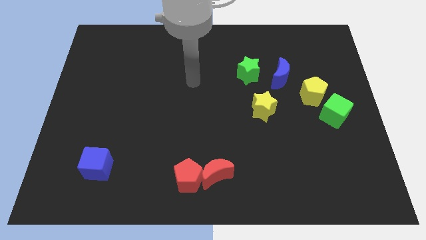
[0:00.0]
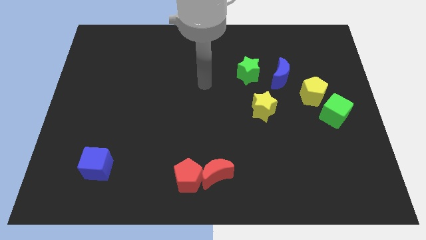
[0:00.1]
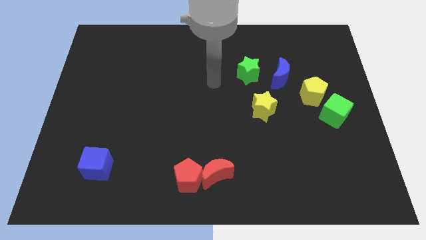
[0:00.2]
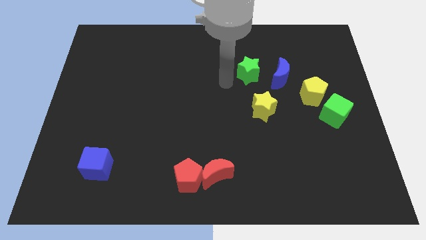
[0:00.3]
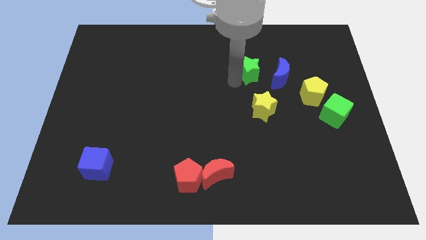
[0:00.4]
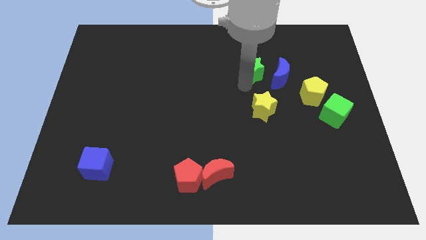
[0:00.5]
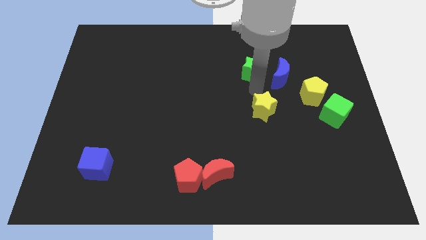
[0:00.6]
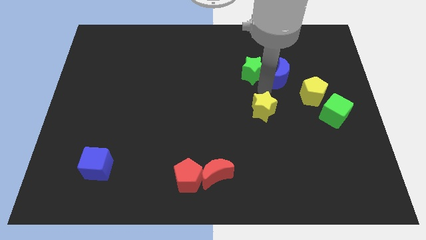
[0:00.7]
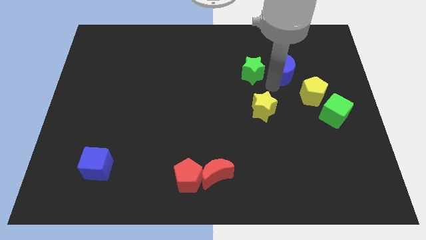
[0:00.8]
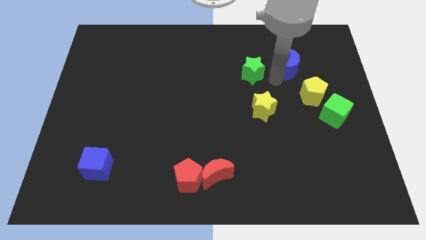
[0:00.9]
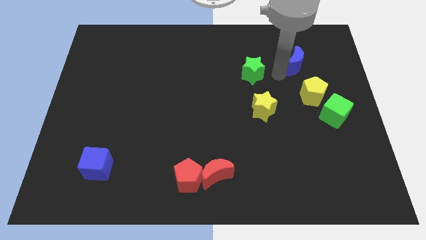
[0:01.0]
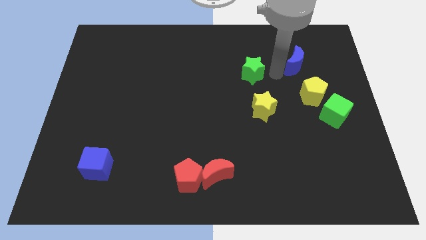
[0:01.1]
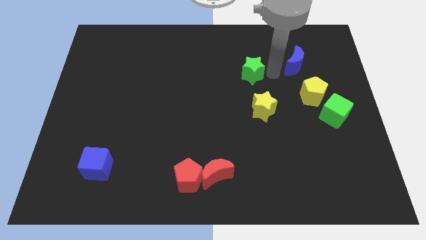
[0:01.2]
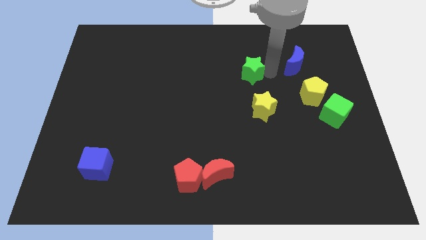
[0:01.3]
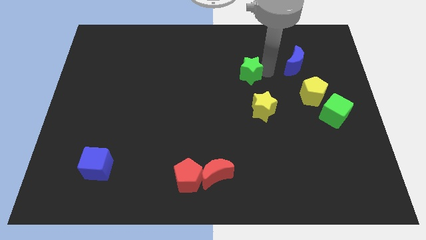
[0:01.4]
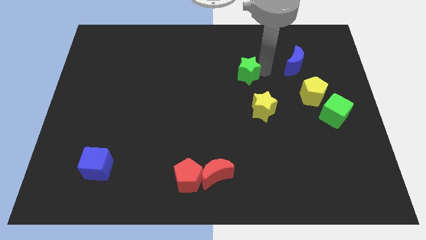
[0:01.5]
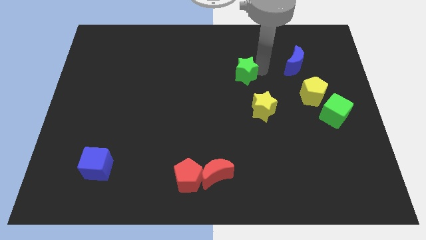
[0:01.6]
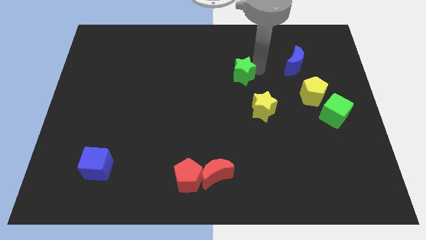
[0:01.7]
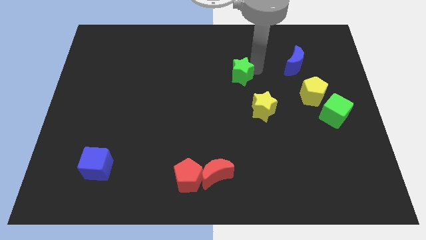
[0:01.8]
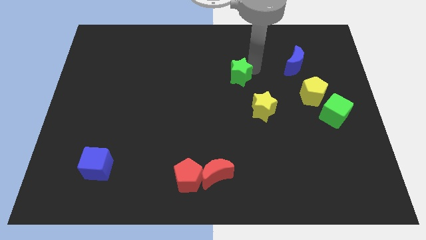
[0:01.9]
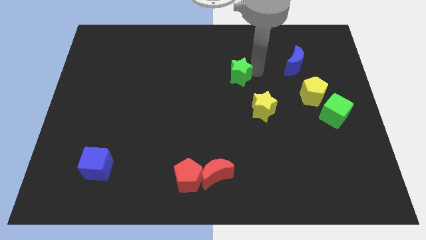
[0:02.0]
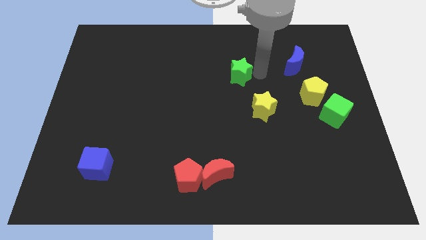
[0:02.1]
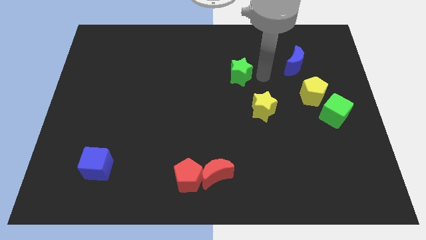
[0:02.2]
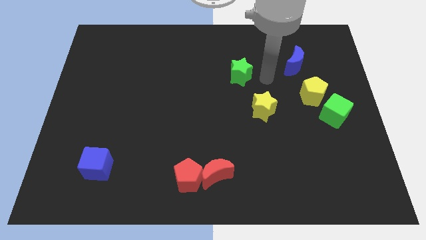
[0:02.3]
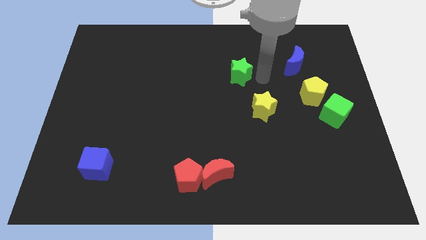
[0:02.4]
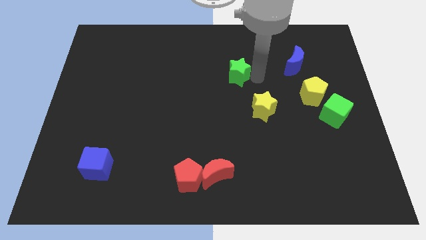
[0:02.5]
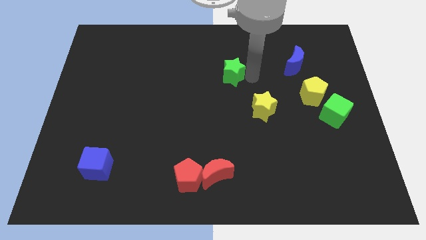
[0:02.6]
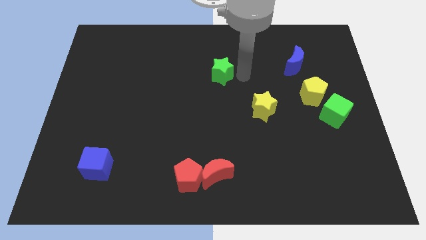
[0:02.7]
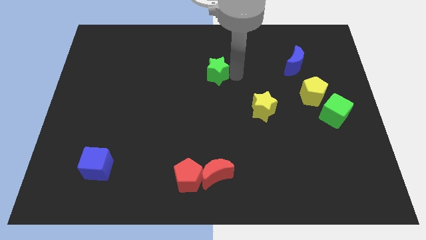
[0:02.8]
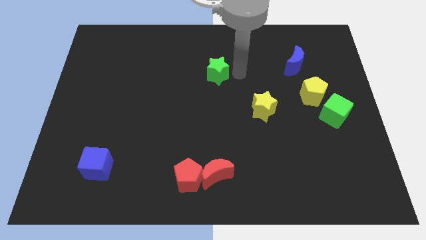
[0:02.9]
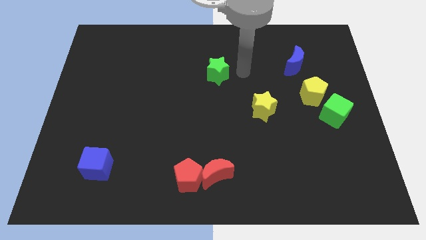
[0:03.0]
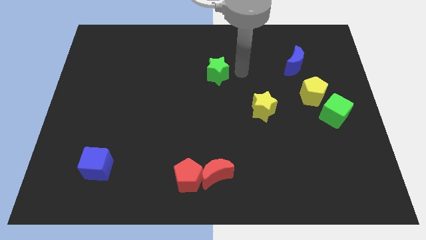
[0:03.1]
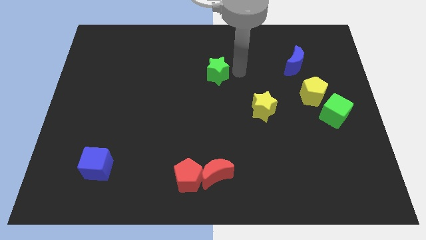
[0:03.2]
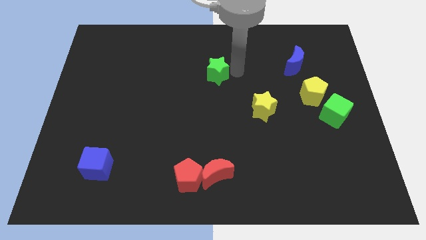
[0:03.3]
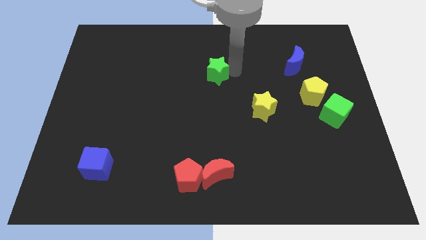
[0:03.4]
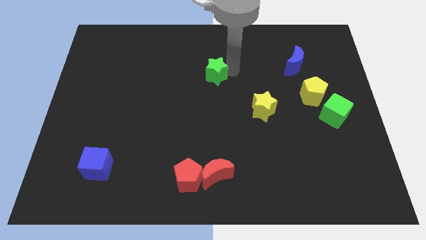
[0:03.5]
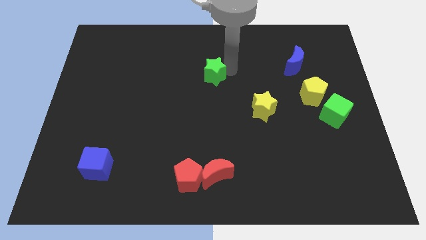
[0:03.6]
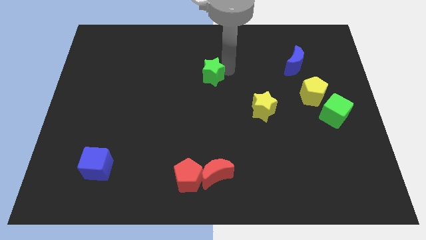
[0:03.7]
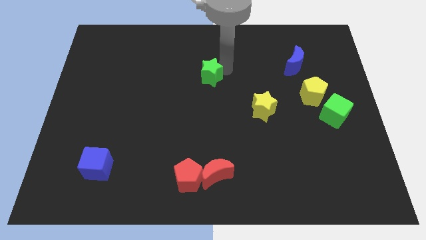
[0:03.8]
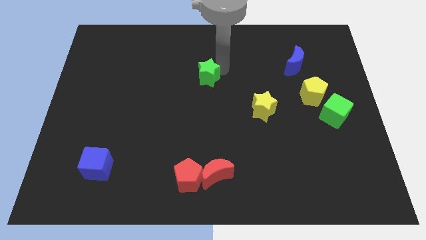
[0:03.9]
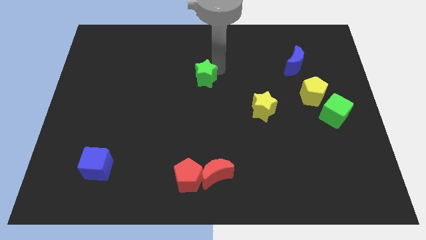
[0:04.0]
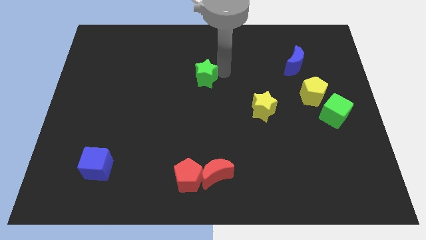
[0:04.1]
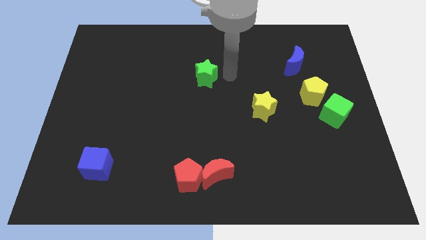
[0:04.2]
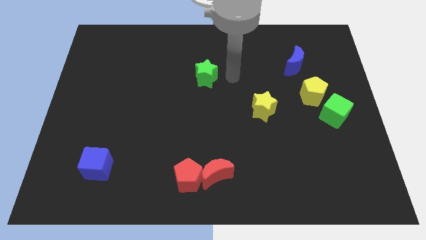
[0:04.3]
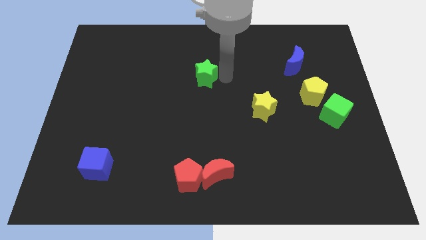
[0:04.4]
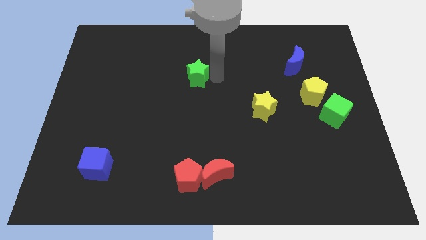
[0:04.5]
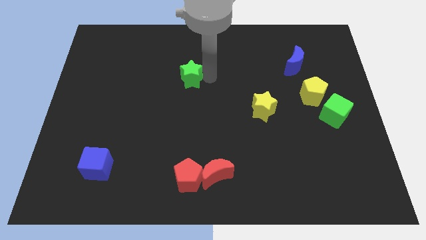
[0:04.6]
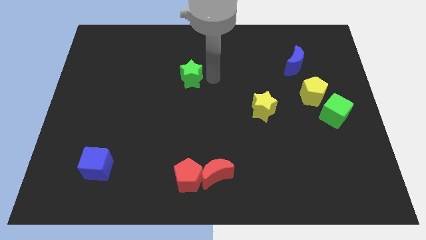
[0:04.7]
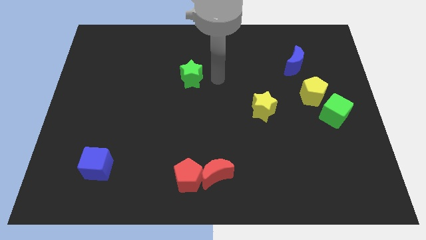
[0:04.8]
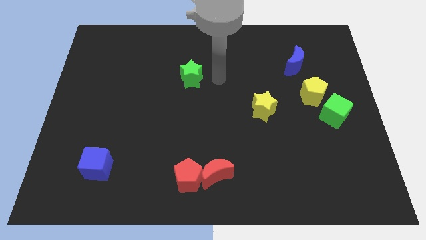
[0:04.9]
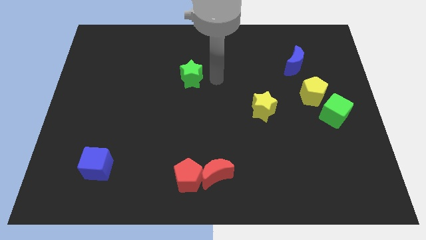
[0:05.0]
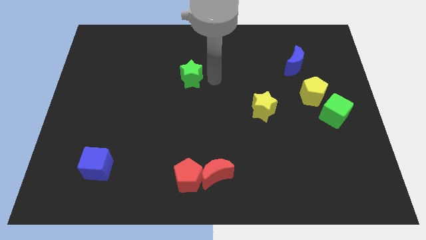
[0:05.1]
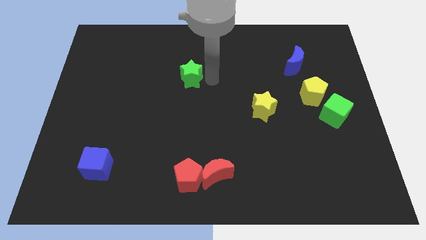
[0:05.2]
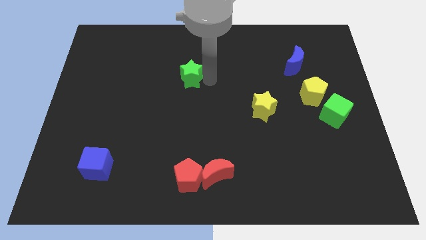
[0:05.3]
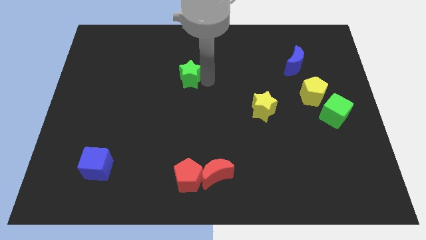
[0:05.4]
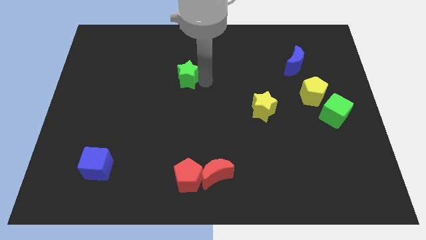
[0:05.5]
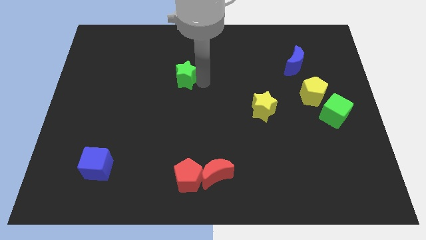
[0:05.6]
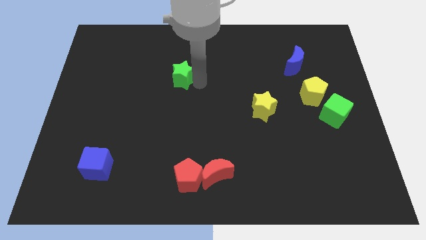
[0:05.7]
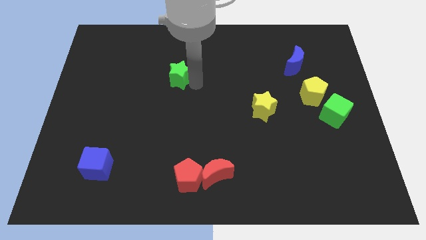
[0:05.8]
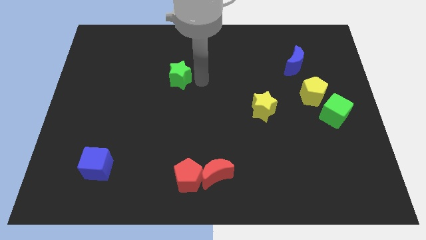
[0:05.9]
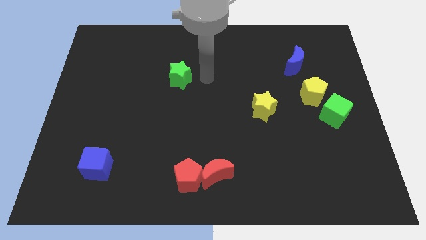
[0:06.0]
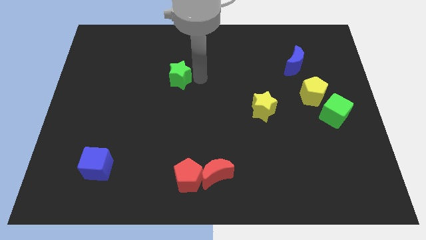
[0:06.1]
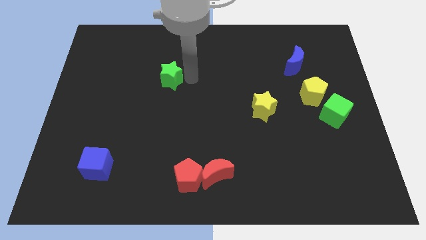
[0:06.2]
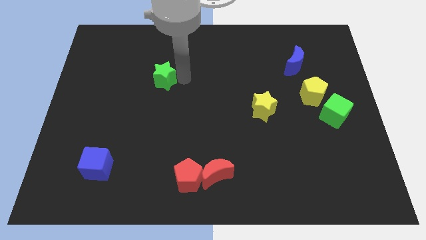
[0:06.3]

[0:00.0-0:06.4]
slide the green star left

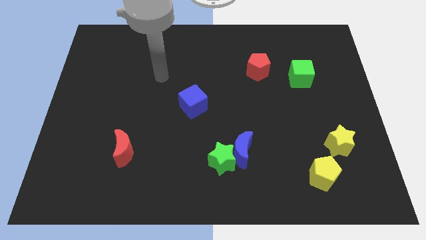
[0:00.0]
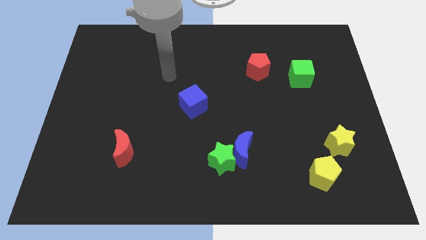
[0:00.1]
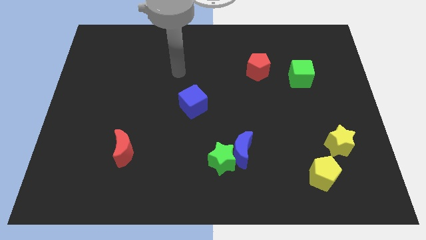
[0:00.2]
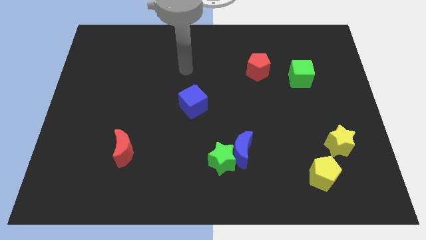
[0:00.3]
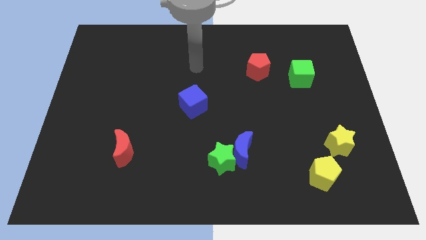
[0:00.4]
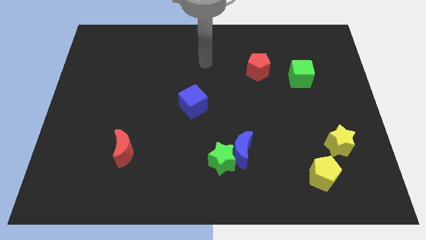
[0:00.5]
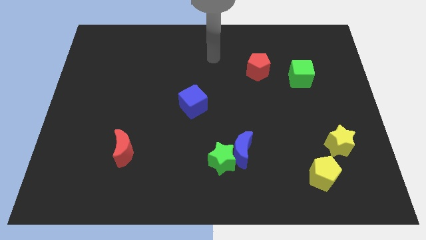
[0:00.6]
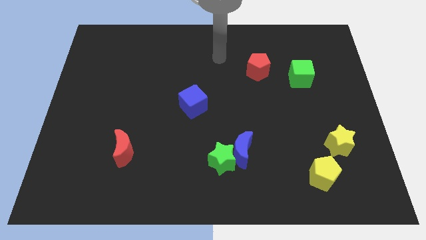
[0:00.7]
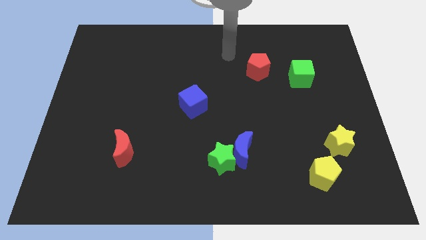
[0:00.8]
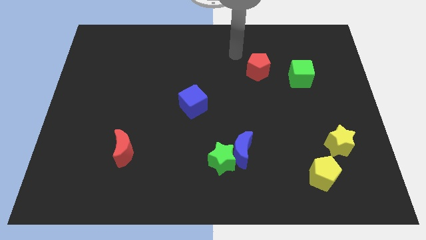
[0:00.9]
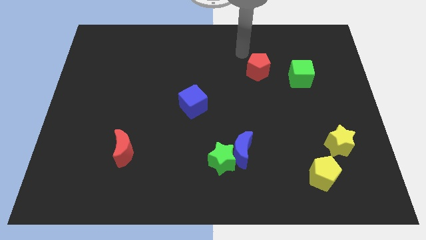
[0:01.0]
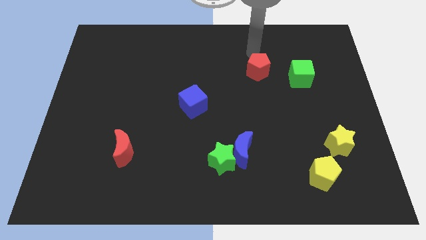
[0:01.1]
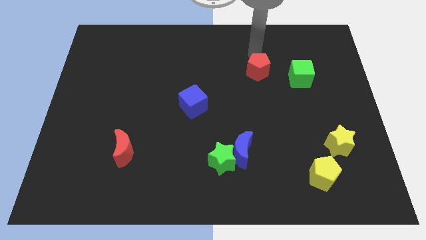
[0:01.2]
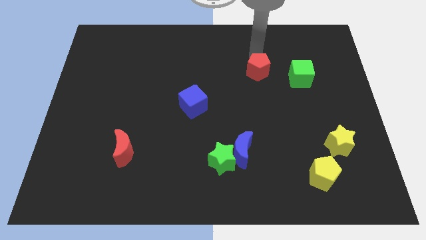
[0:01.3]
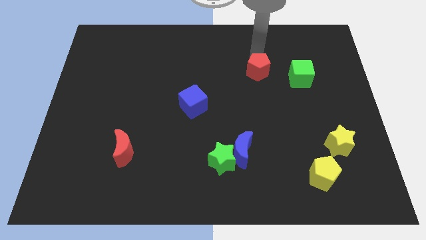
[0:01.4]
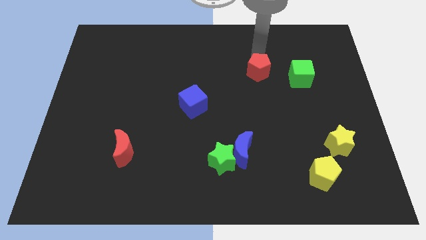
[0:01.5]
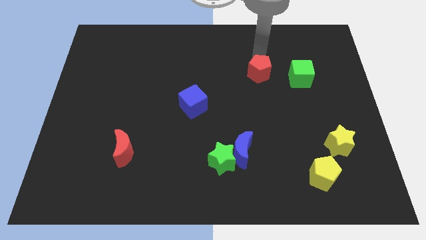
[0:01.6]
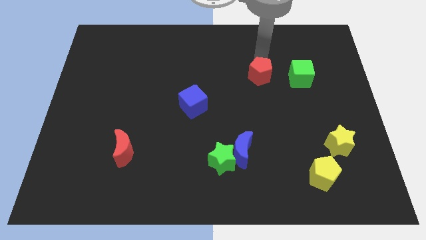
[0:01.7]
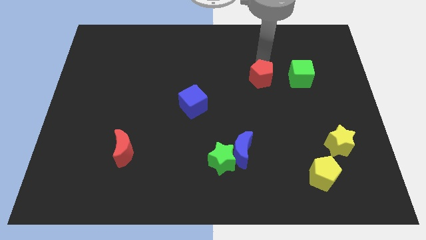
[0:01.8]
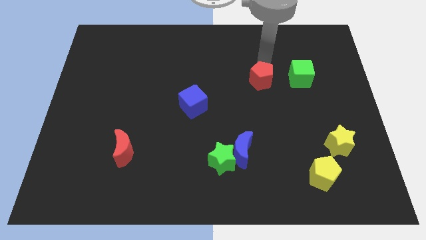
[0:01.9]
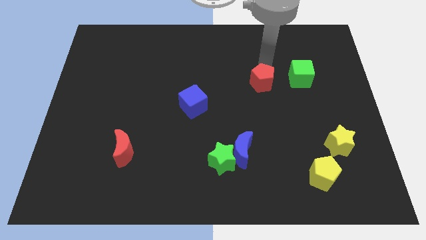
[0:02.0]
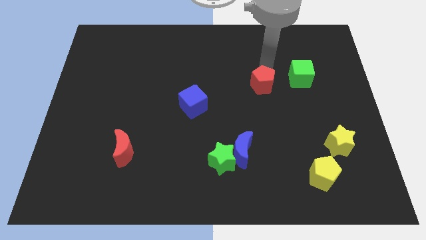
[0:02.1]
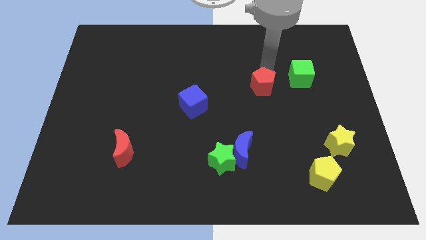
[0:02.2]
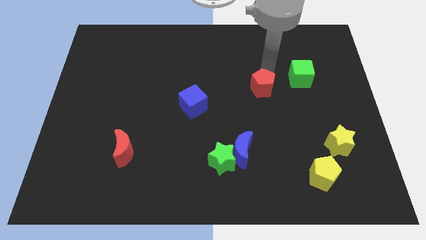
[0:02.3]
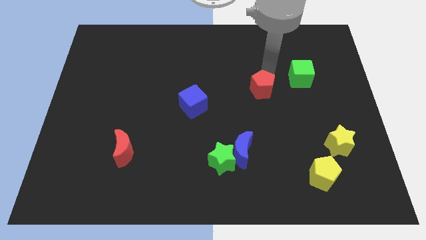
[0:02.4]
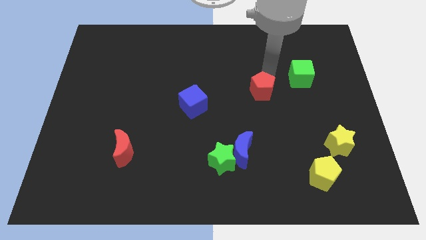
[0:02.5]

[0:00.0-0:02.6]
slide the red pentagon a little downwards
